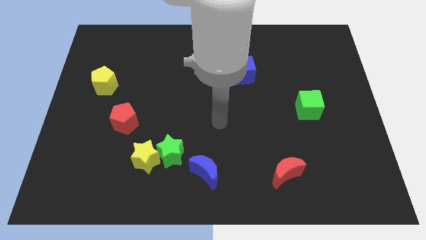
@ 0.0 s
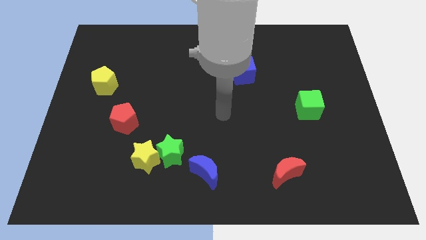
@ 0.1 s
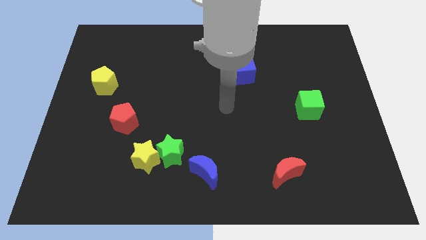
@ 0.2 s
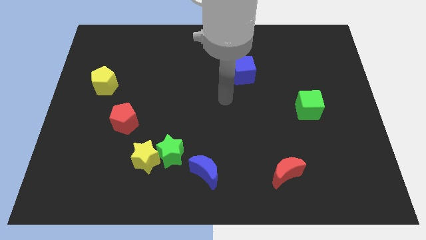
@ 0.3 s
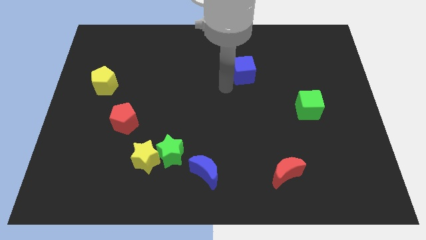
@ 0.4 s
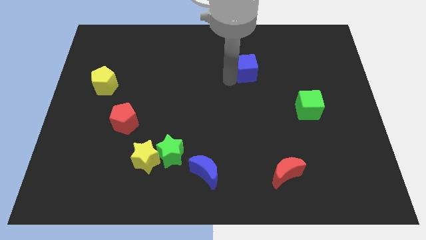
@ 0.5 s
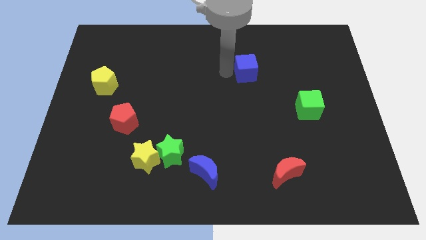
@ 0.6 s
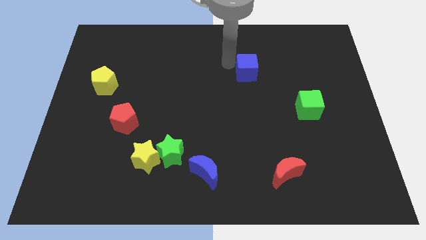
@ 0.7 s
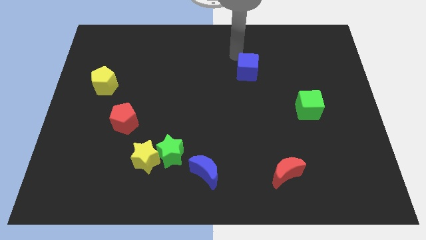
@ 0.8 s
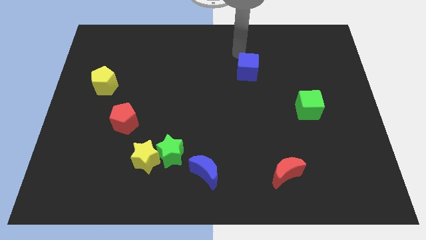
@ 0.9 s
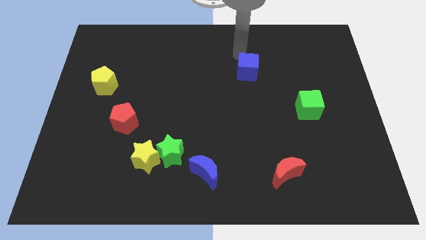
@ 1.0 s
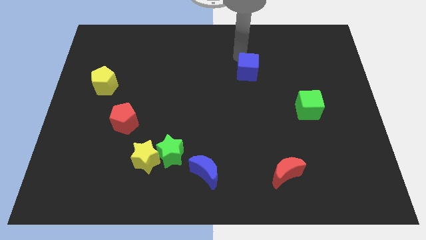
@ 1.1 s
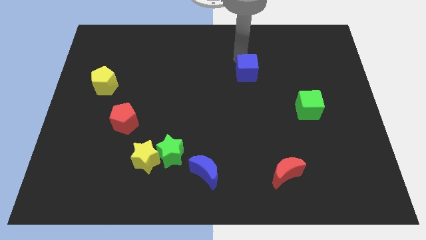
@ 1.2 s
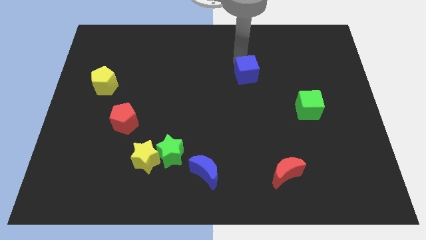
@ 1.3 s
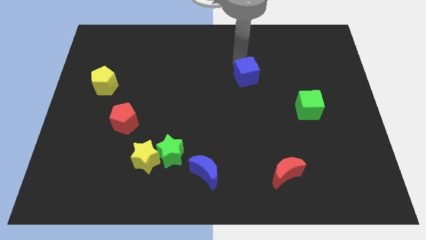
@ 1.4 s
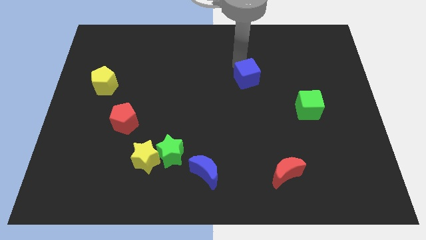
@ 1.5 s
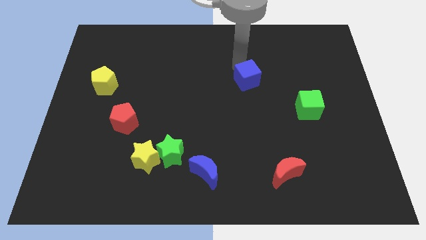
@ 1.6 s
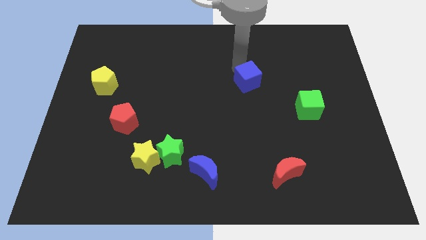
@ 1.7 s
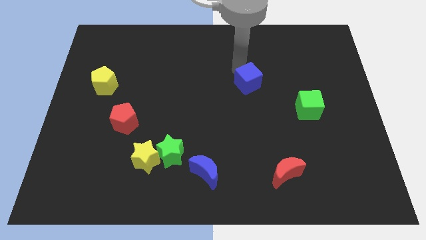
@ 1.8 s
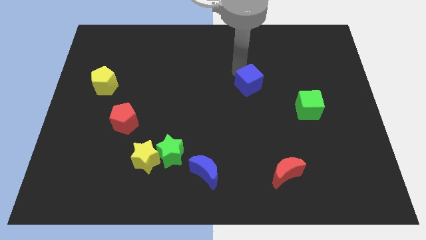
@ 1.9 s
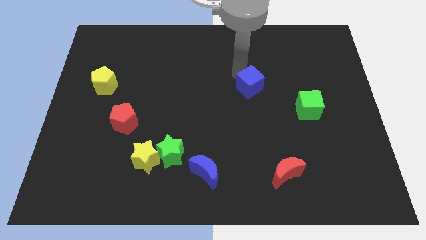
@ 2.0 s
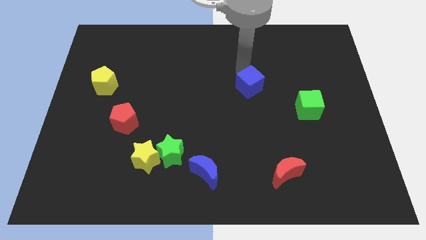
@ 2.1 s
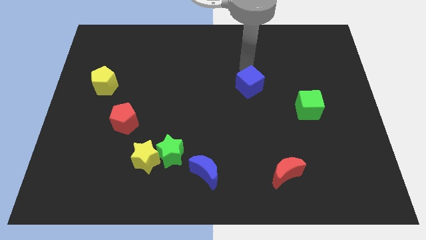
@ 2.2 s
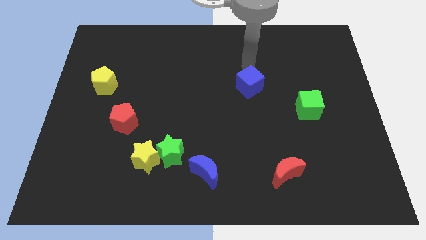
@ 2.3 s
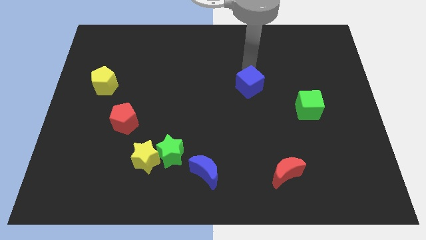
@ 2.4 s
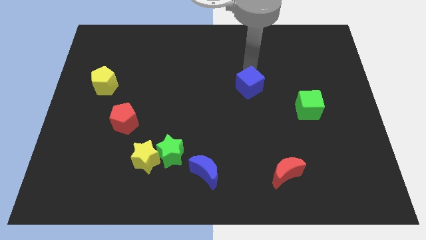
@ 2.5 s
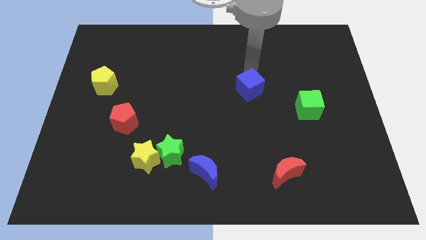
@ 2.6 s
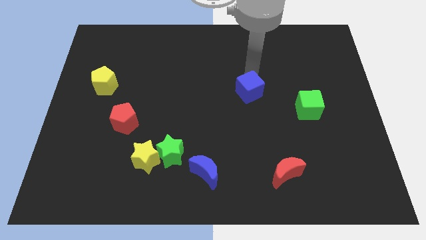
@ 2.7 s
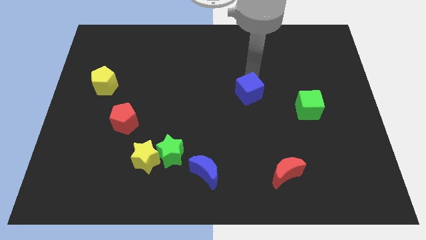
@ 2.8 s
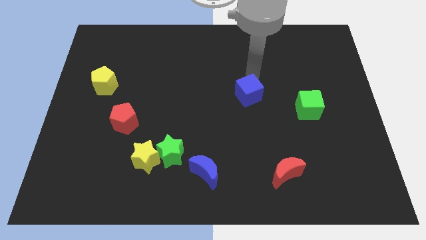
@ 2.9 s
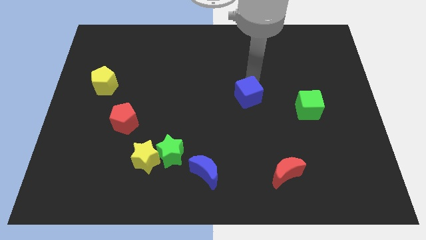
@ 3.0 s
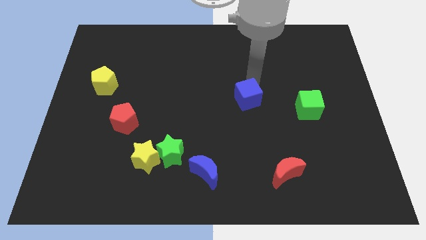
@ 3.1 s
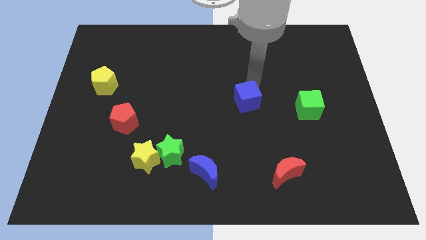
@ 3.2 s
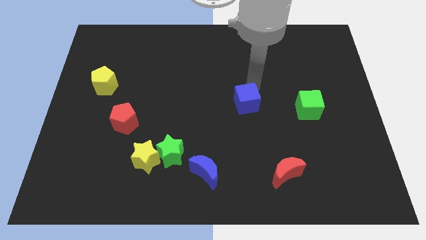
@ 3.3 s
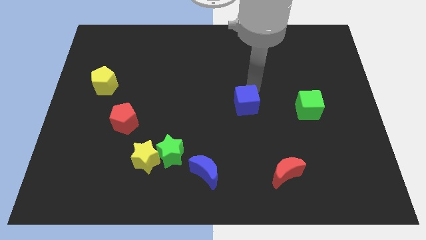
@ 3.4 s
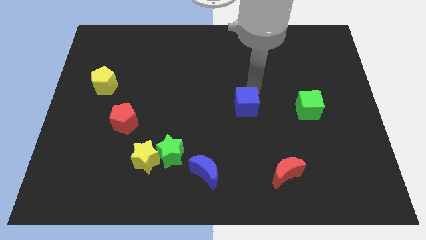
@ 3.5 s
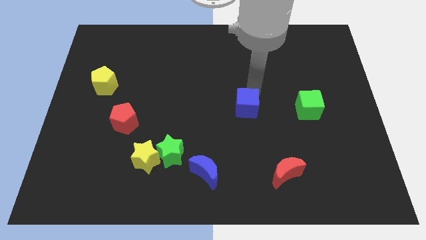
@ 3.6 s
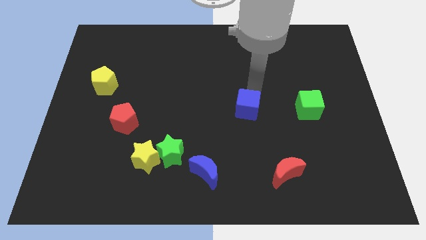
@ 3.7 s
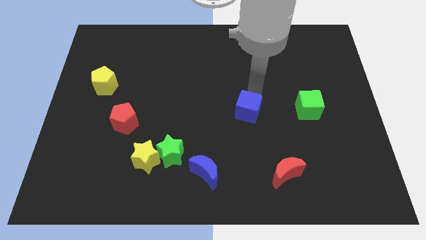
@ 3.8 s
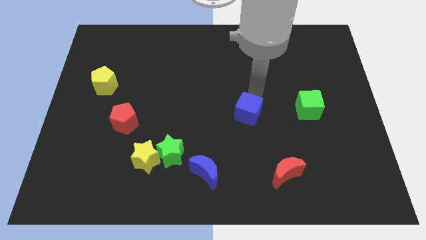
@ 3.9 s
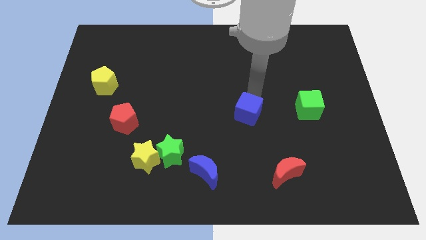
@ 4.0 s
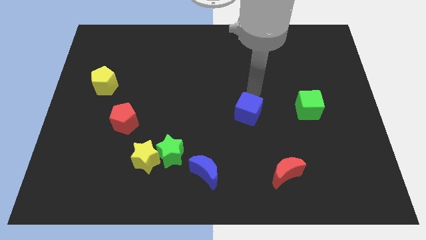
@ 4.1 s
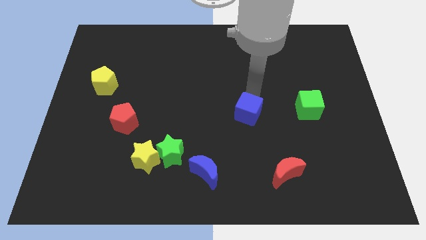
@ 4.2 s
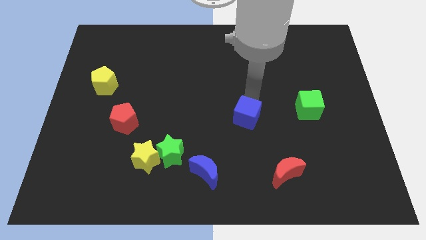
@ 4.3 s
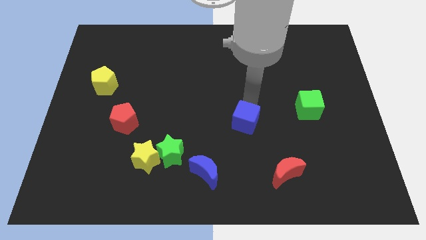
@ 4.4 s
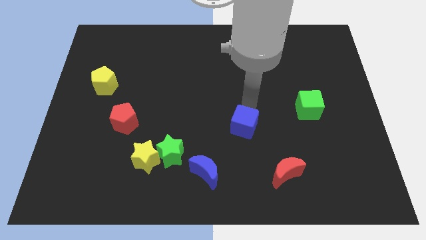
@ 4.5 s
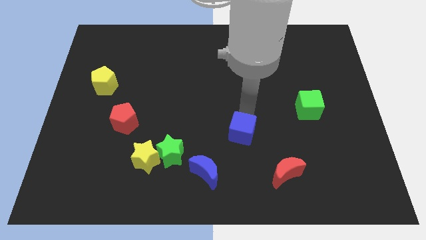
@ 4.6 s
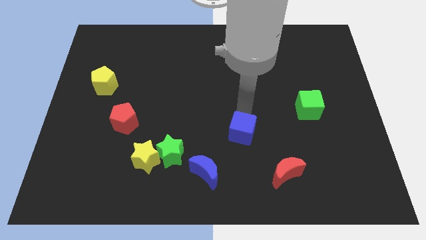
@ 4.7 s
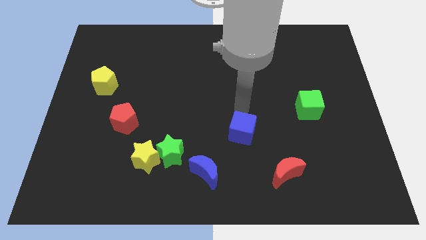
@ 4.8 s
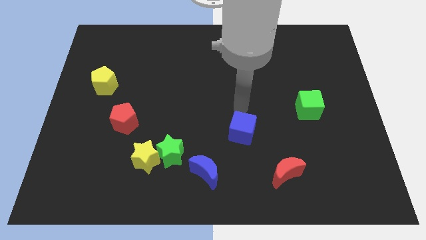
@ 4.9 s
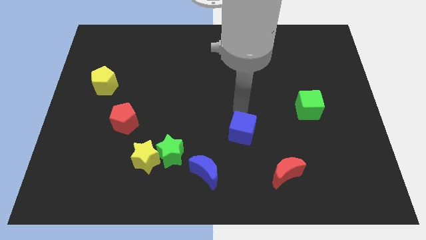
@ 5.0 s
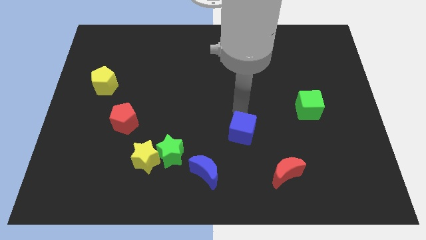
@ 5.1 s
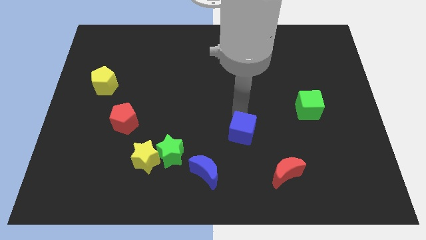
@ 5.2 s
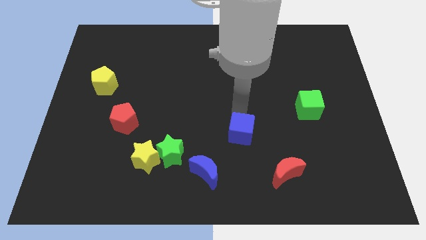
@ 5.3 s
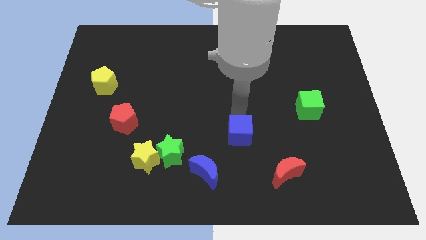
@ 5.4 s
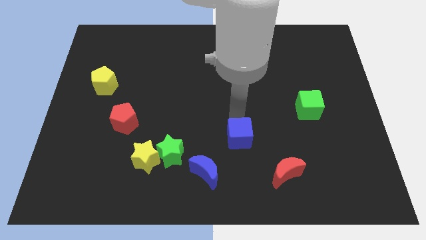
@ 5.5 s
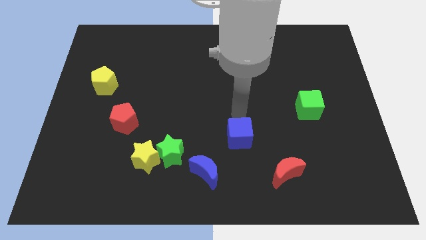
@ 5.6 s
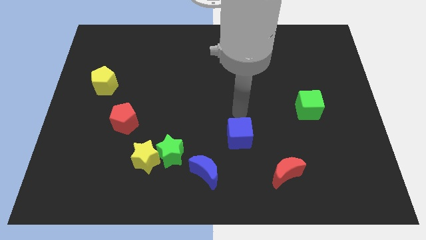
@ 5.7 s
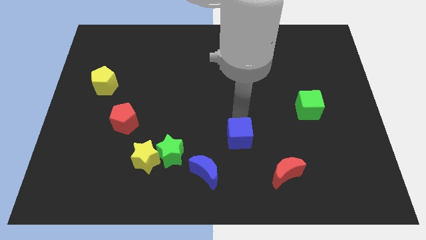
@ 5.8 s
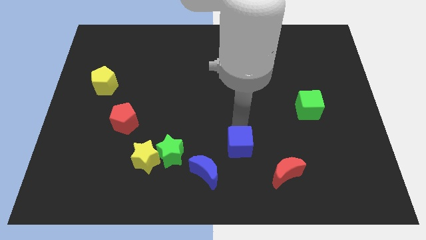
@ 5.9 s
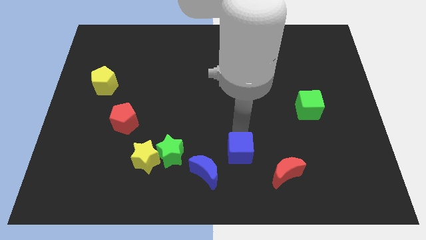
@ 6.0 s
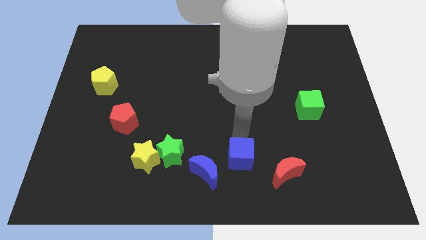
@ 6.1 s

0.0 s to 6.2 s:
push the blue cube to the bottom

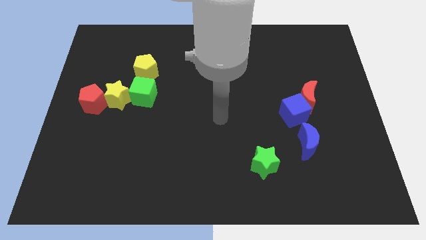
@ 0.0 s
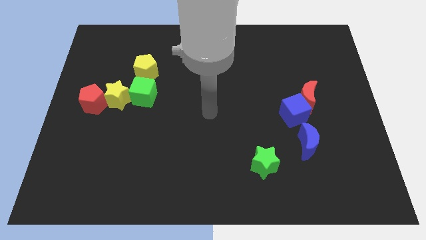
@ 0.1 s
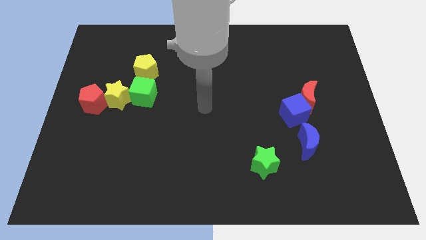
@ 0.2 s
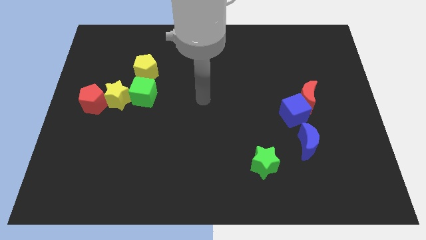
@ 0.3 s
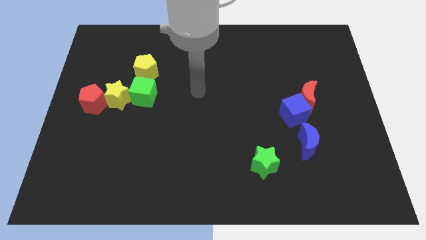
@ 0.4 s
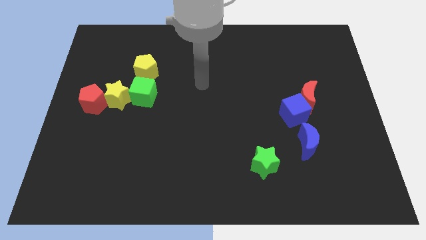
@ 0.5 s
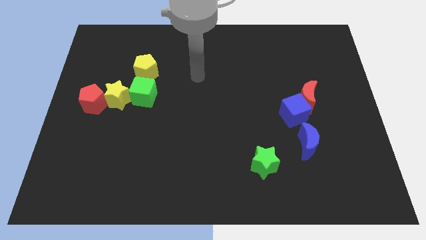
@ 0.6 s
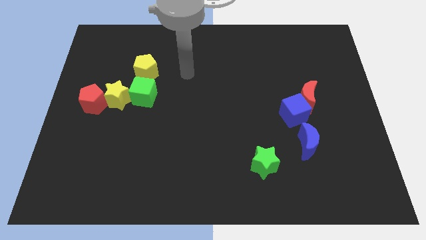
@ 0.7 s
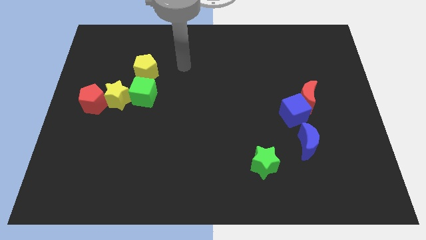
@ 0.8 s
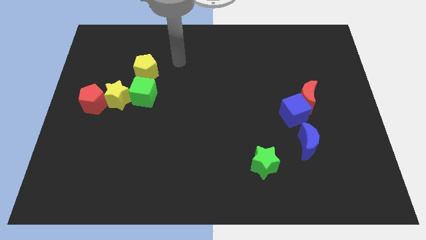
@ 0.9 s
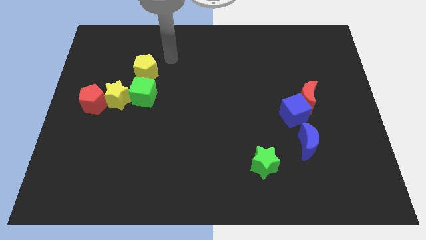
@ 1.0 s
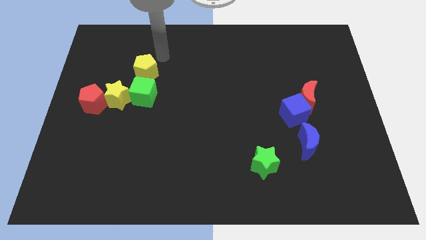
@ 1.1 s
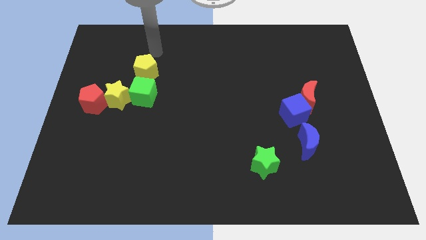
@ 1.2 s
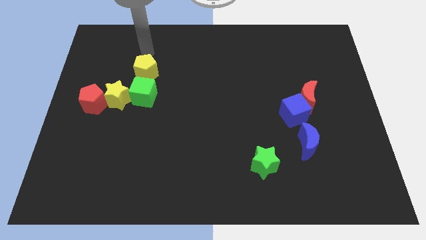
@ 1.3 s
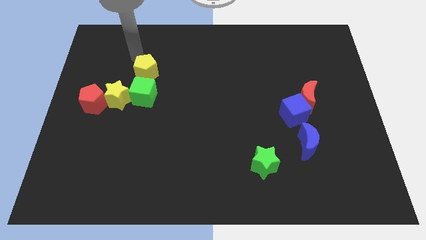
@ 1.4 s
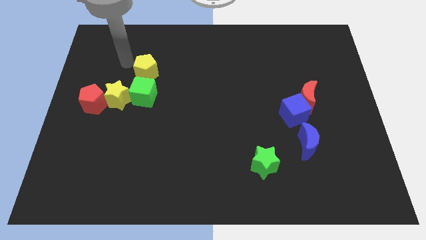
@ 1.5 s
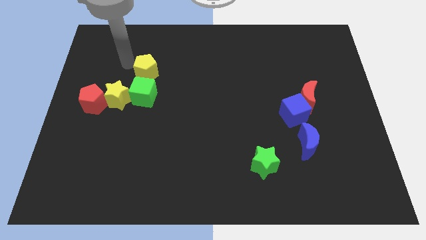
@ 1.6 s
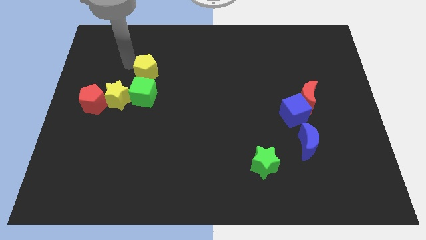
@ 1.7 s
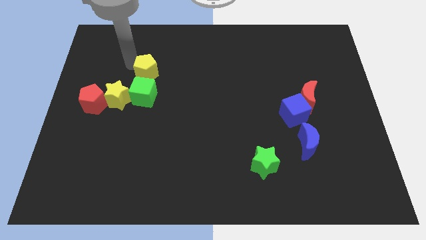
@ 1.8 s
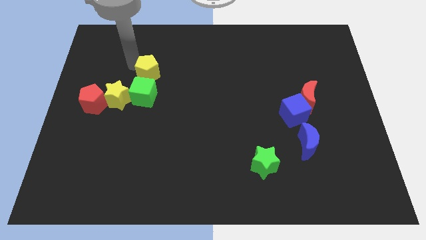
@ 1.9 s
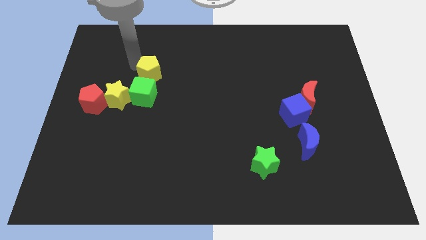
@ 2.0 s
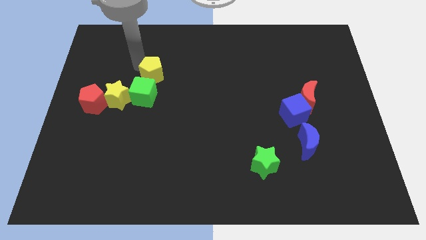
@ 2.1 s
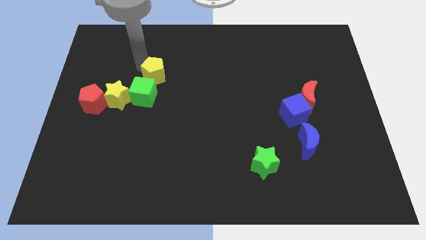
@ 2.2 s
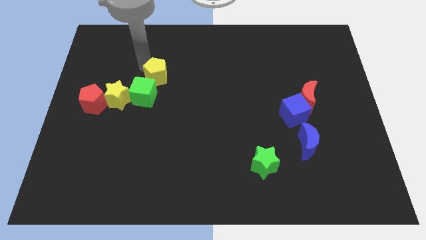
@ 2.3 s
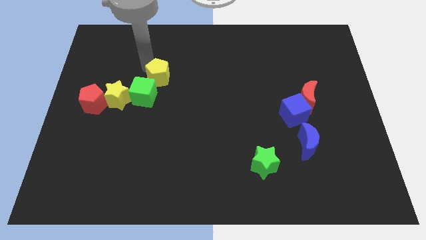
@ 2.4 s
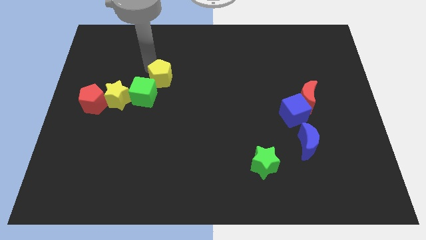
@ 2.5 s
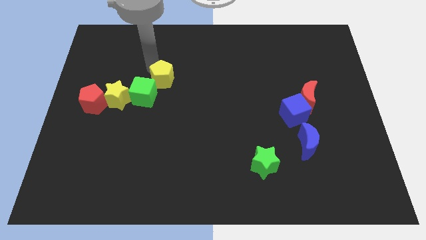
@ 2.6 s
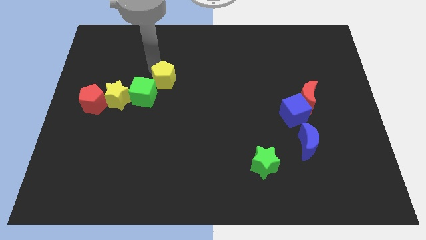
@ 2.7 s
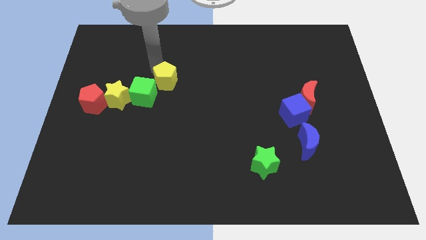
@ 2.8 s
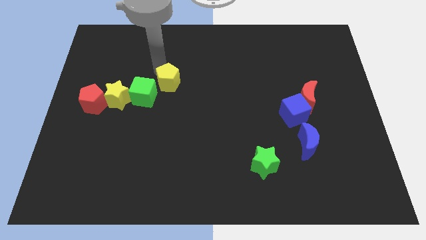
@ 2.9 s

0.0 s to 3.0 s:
move the yellow pentagon to the center of the board
